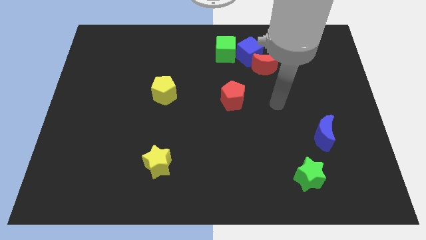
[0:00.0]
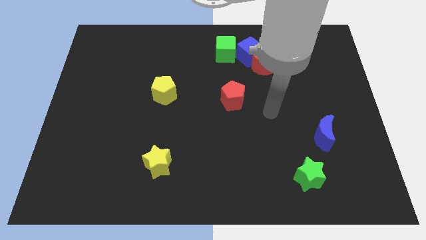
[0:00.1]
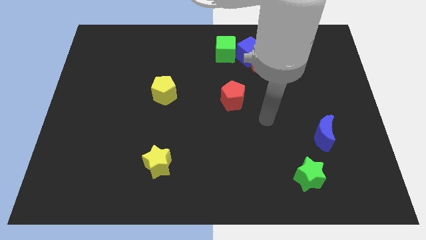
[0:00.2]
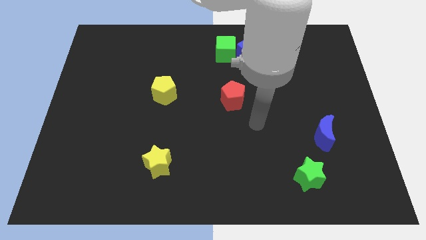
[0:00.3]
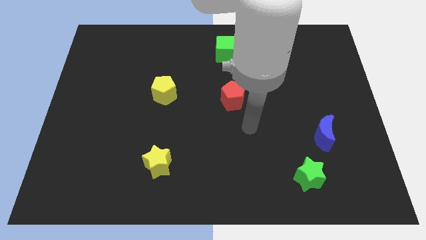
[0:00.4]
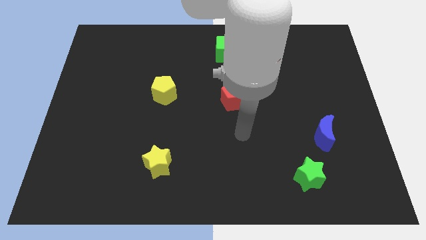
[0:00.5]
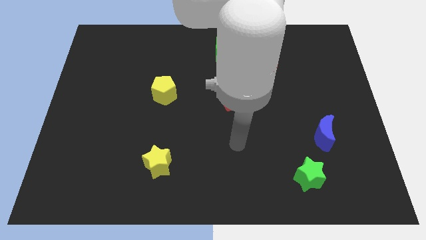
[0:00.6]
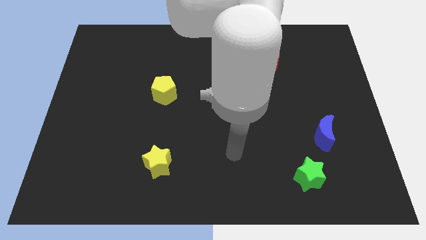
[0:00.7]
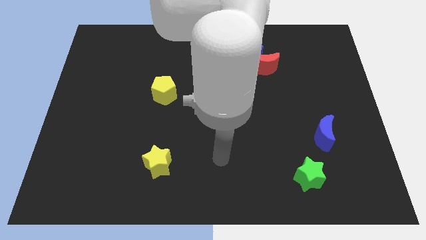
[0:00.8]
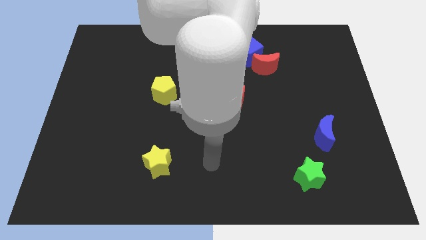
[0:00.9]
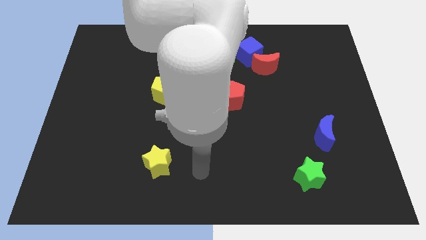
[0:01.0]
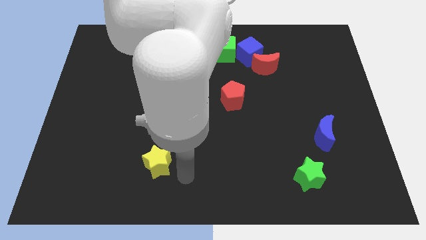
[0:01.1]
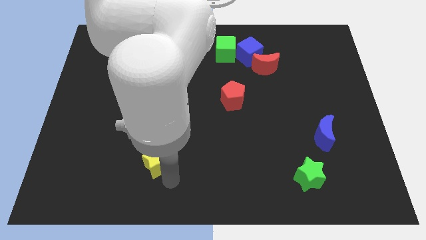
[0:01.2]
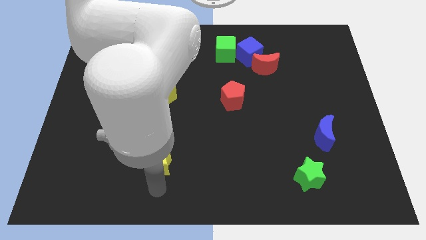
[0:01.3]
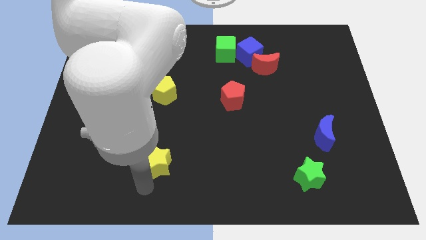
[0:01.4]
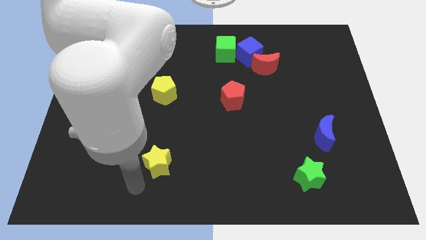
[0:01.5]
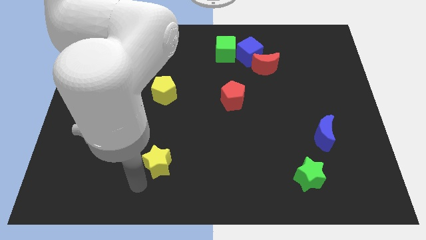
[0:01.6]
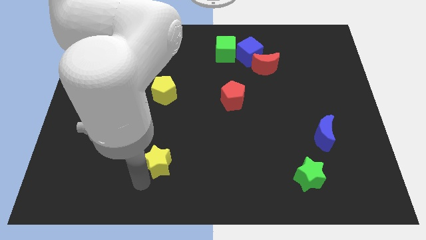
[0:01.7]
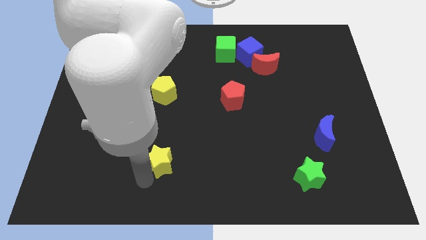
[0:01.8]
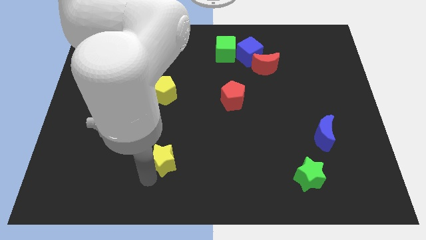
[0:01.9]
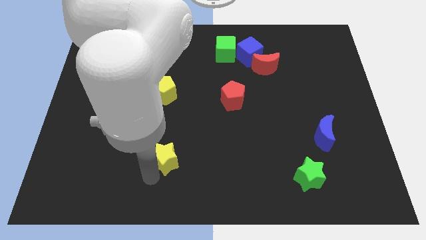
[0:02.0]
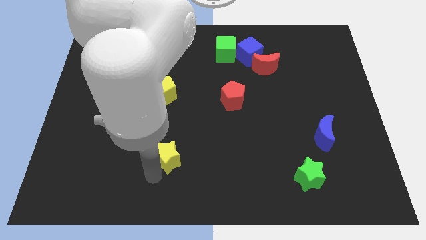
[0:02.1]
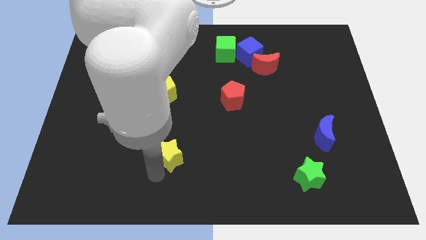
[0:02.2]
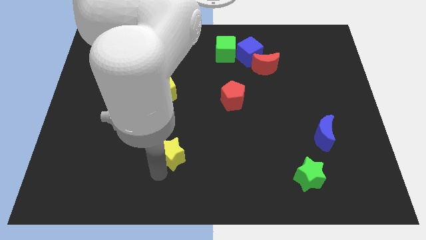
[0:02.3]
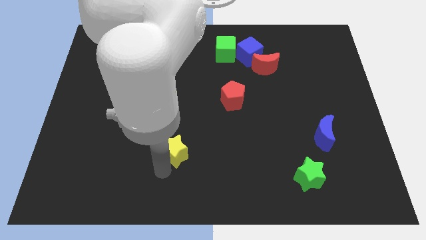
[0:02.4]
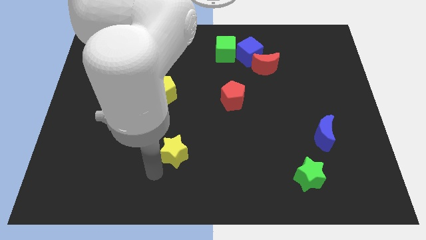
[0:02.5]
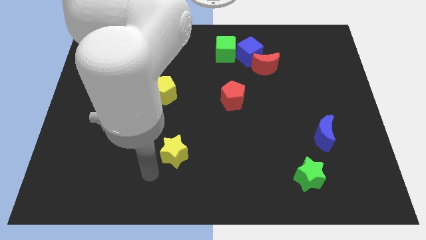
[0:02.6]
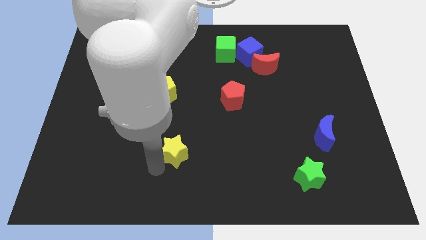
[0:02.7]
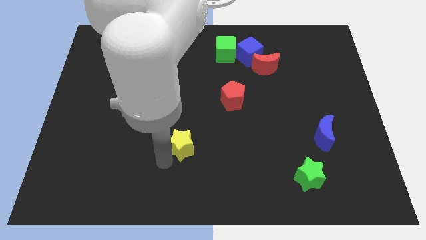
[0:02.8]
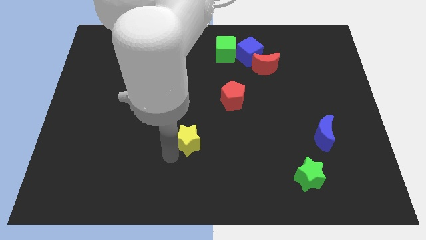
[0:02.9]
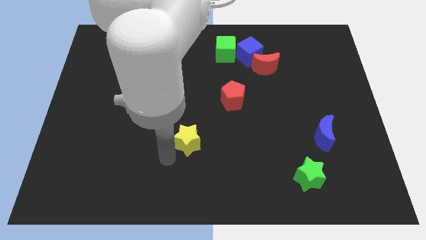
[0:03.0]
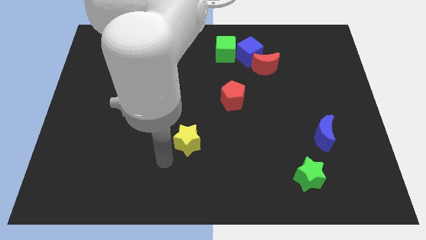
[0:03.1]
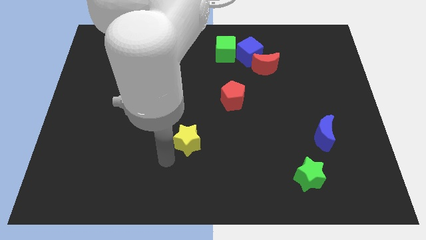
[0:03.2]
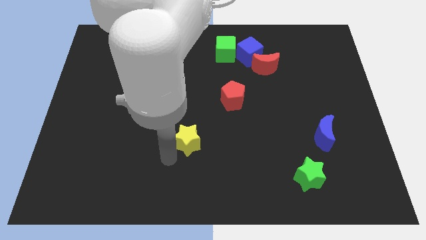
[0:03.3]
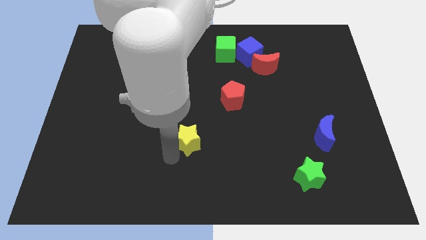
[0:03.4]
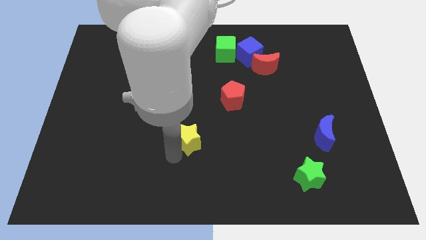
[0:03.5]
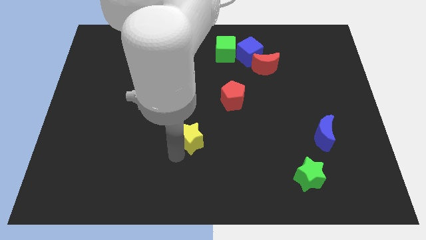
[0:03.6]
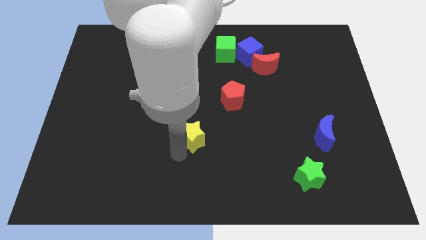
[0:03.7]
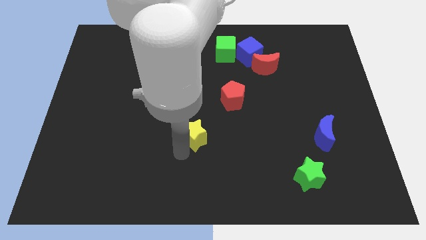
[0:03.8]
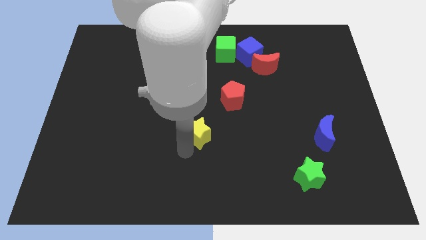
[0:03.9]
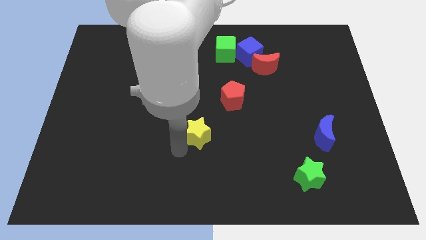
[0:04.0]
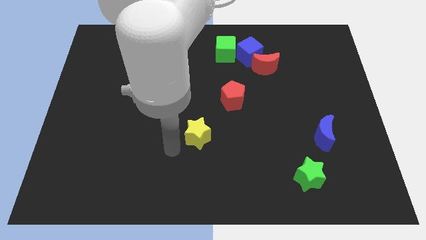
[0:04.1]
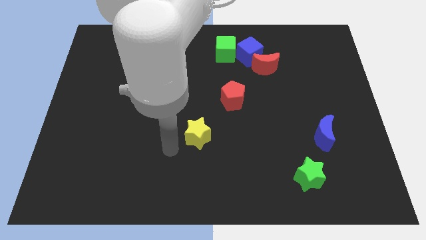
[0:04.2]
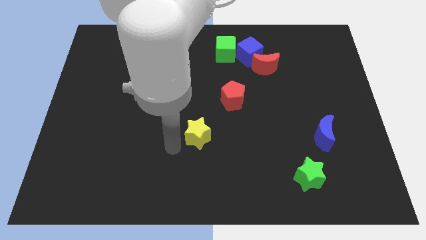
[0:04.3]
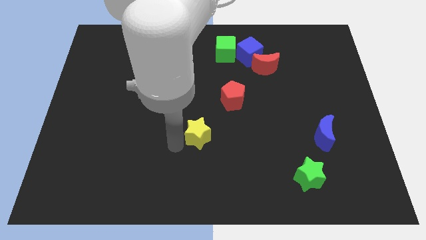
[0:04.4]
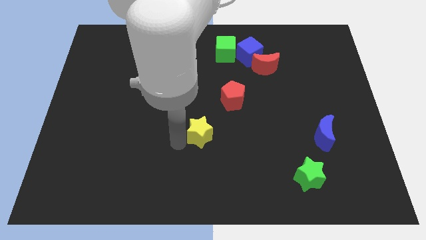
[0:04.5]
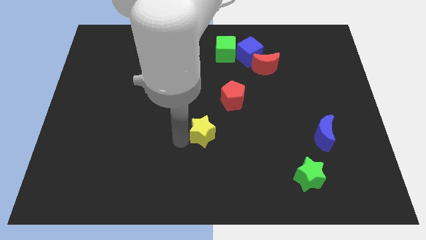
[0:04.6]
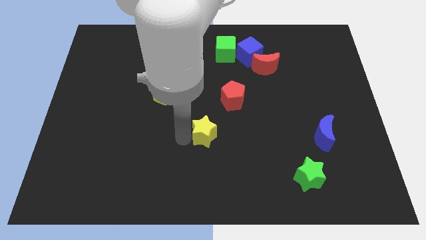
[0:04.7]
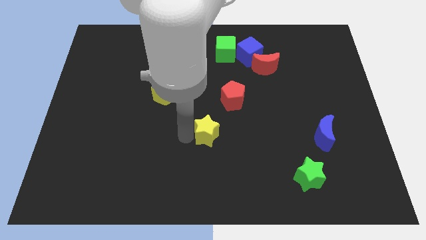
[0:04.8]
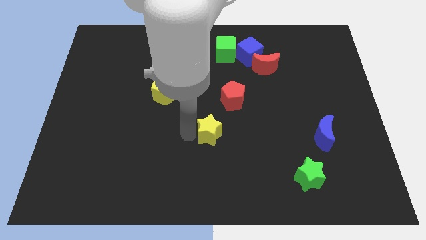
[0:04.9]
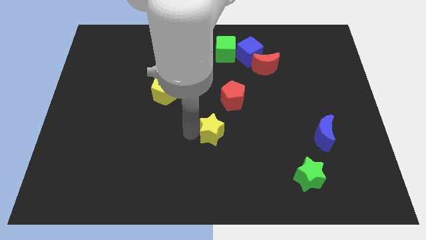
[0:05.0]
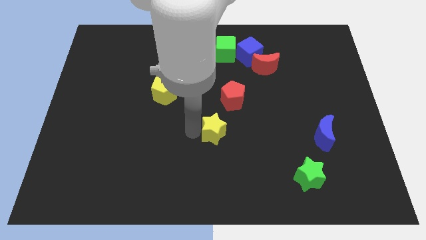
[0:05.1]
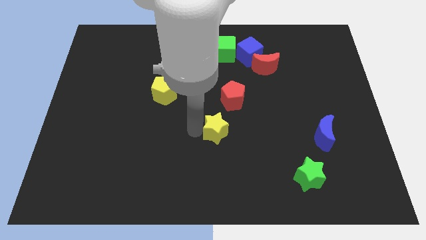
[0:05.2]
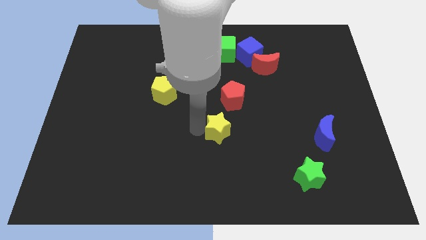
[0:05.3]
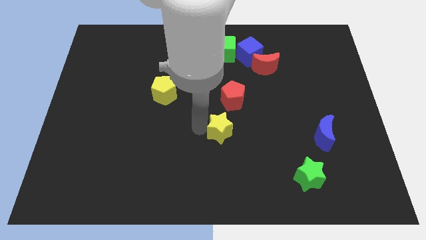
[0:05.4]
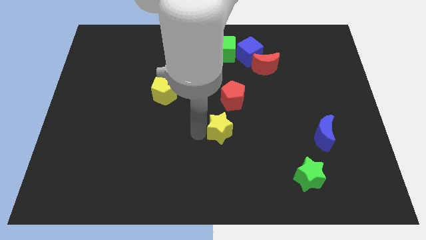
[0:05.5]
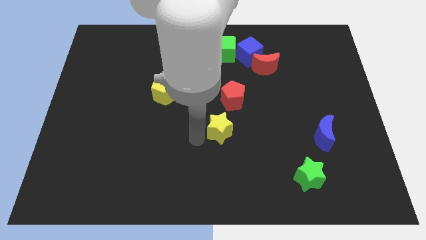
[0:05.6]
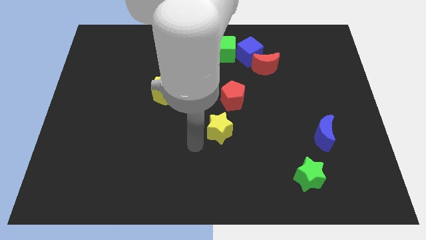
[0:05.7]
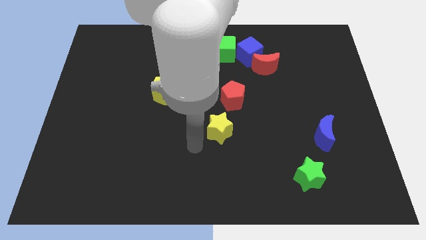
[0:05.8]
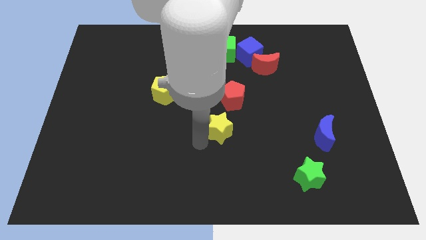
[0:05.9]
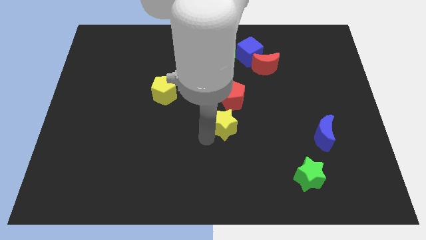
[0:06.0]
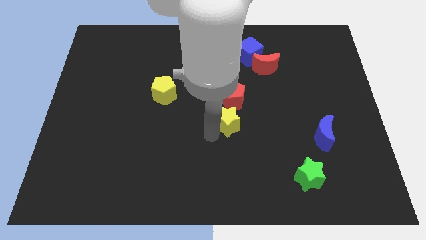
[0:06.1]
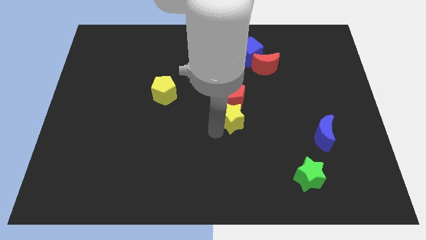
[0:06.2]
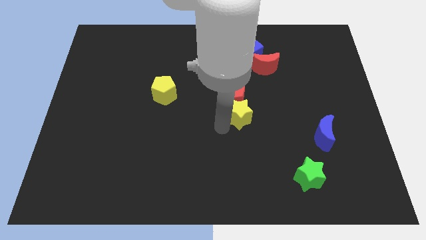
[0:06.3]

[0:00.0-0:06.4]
push the yellow star upwards and to the right diagonally

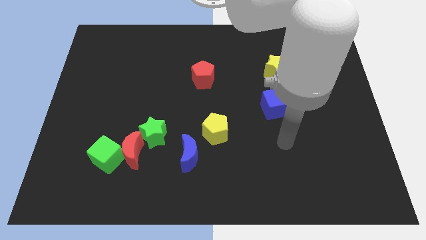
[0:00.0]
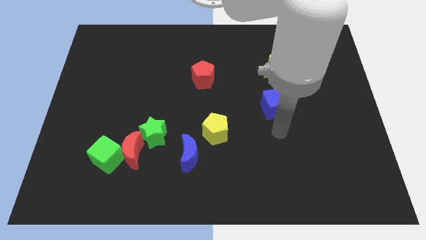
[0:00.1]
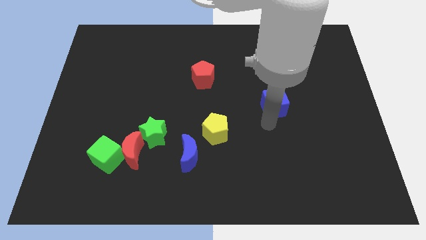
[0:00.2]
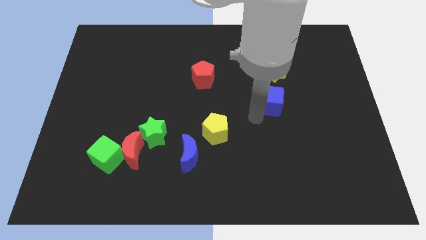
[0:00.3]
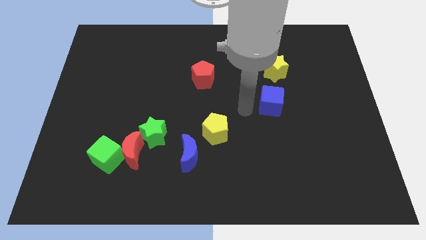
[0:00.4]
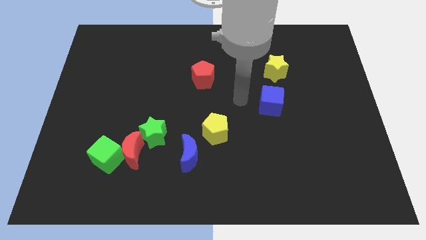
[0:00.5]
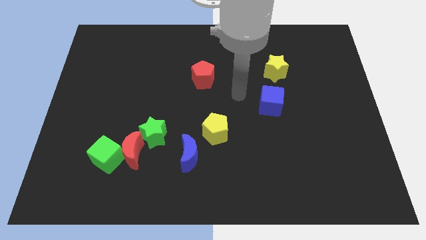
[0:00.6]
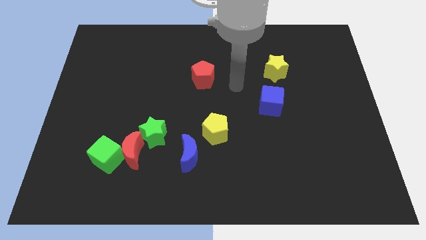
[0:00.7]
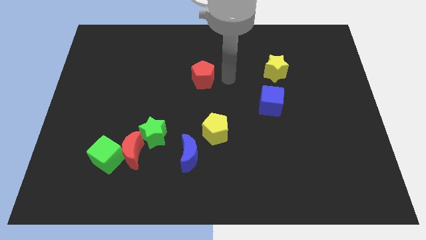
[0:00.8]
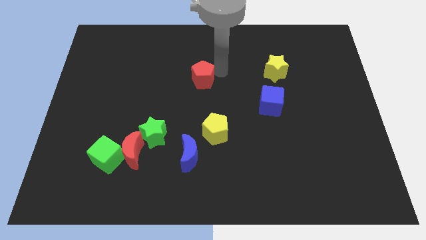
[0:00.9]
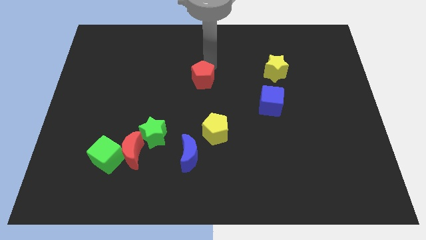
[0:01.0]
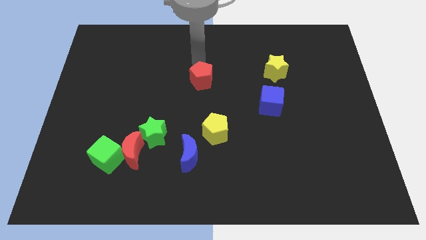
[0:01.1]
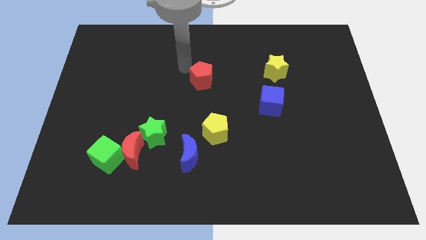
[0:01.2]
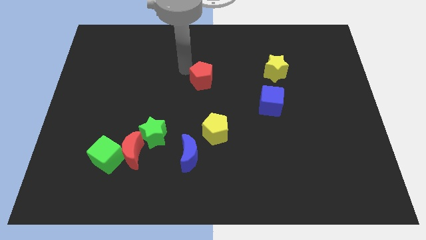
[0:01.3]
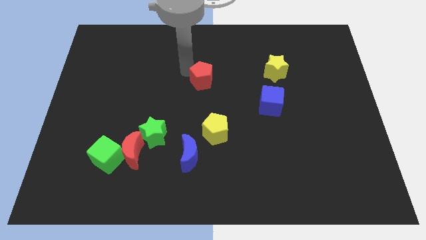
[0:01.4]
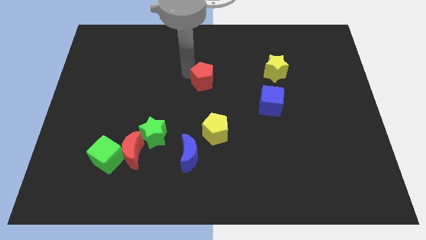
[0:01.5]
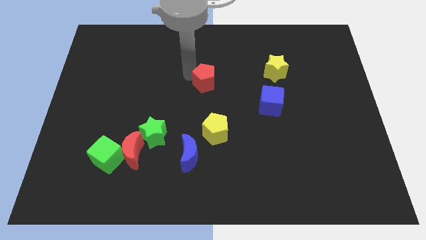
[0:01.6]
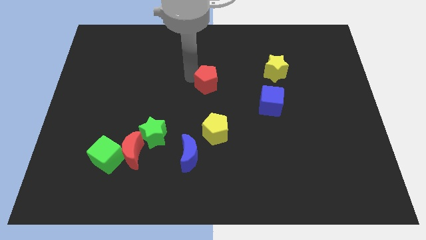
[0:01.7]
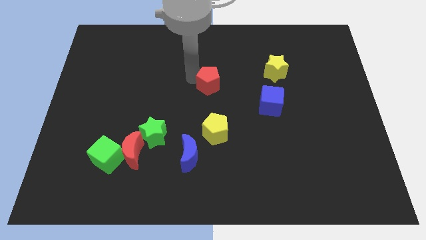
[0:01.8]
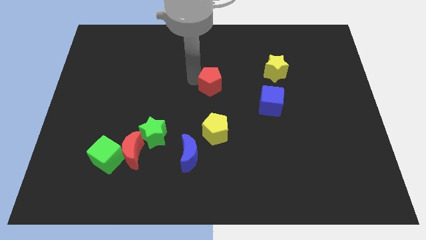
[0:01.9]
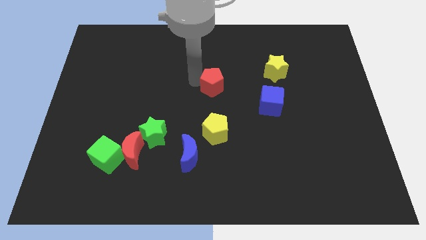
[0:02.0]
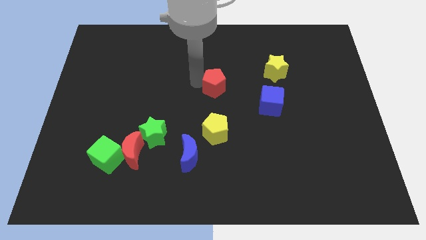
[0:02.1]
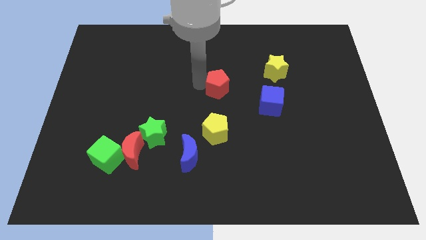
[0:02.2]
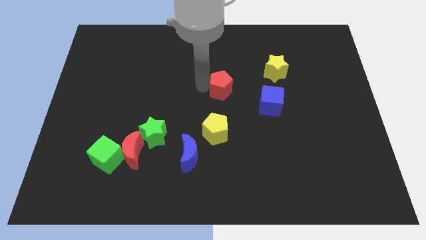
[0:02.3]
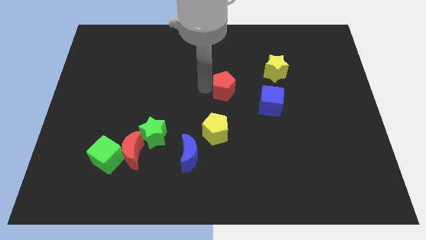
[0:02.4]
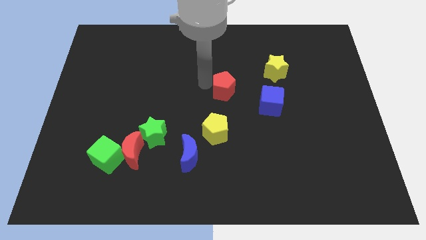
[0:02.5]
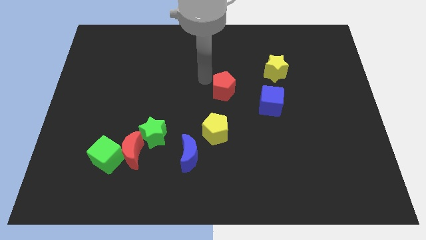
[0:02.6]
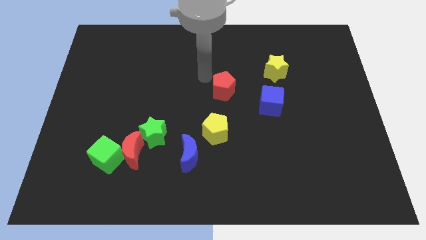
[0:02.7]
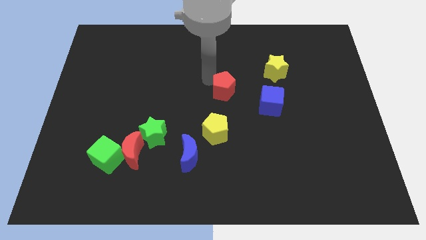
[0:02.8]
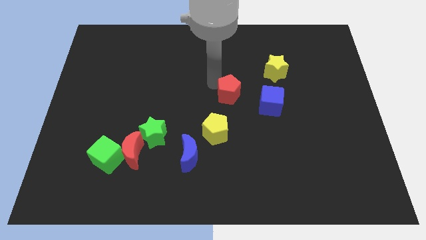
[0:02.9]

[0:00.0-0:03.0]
slightly move the red pentagon downwards and right diagonally
